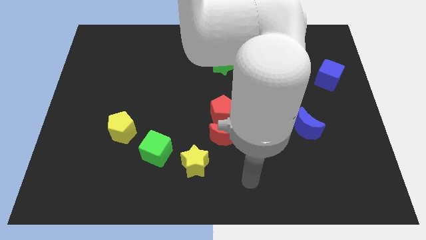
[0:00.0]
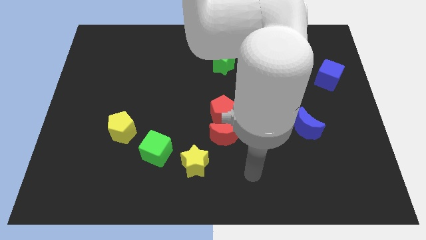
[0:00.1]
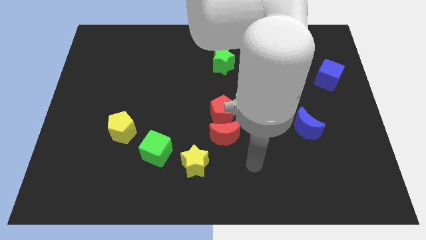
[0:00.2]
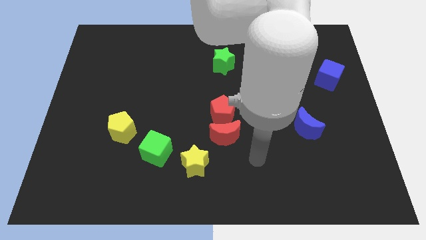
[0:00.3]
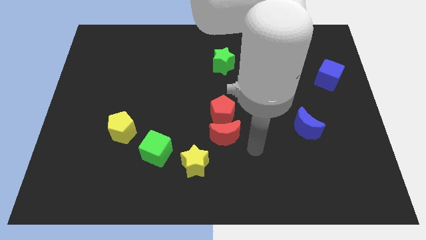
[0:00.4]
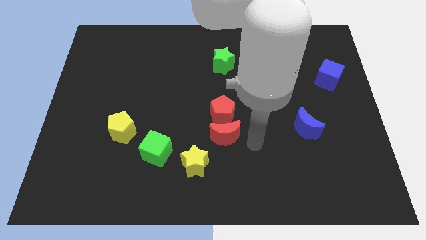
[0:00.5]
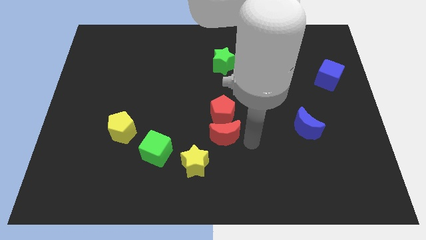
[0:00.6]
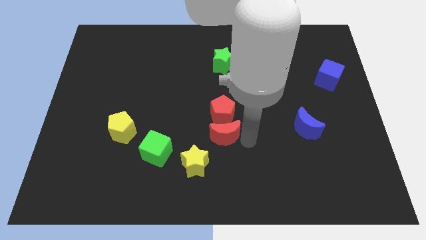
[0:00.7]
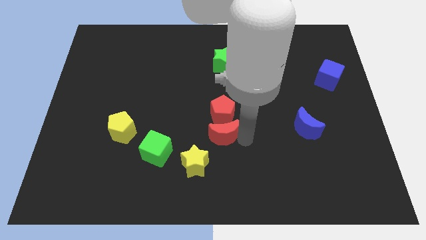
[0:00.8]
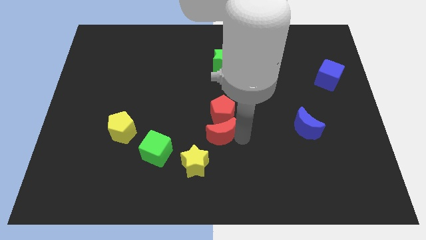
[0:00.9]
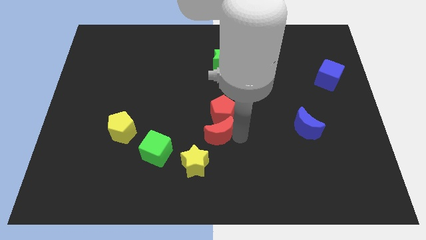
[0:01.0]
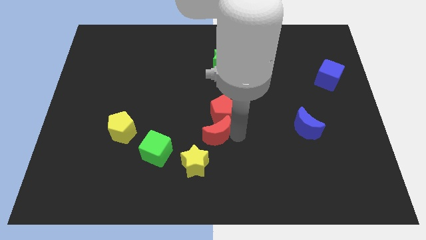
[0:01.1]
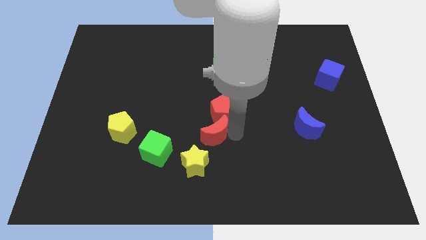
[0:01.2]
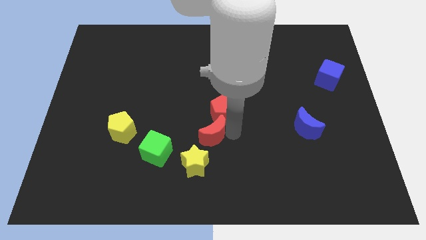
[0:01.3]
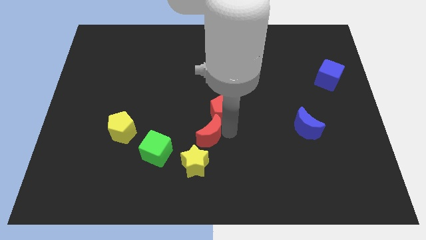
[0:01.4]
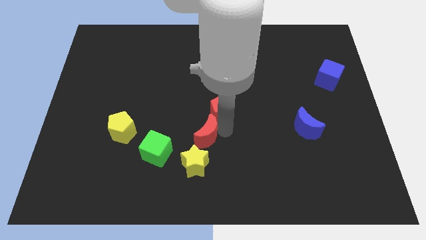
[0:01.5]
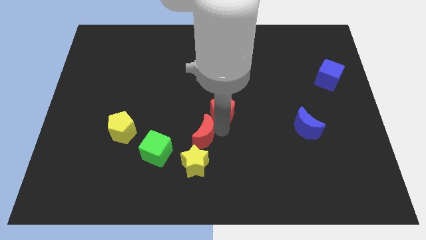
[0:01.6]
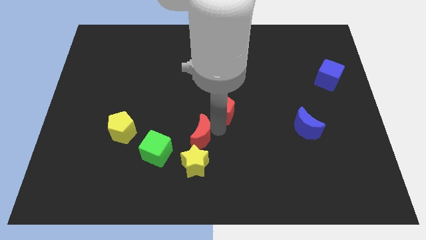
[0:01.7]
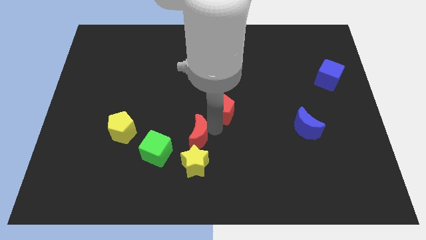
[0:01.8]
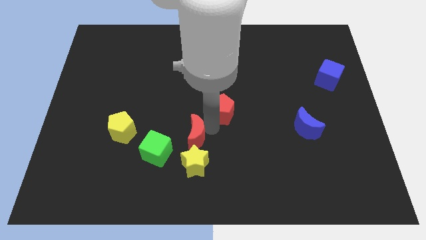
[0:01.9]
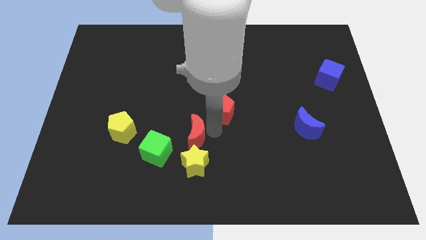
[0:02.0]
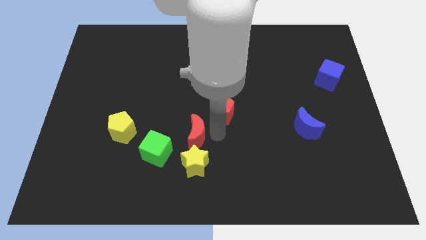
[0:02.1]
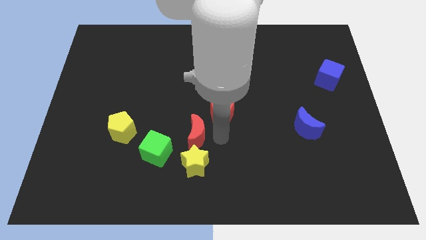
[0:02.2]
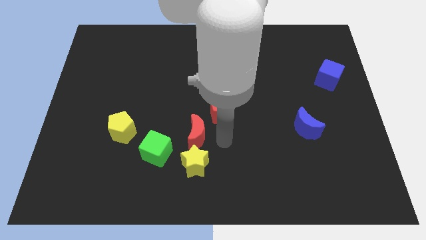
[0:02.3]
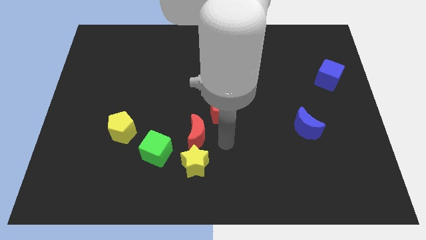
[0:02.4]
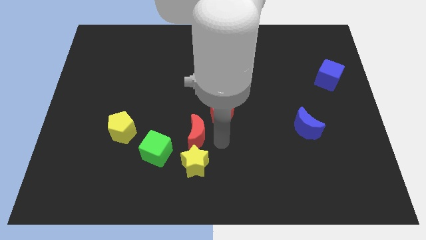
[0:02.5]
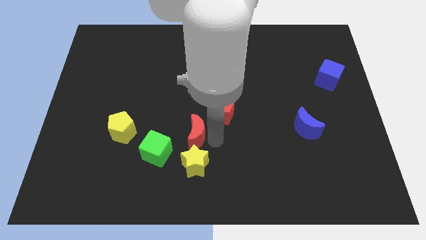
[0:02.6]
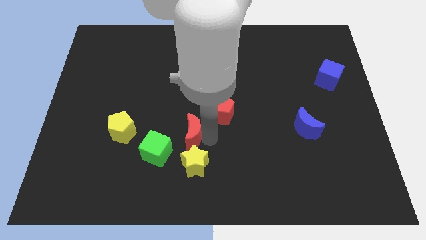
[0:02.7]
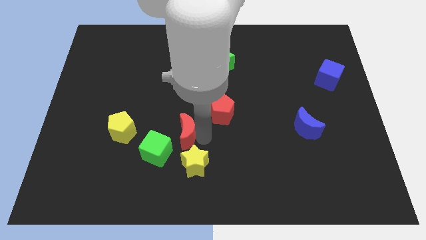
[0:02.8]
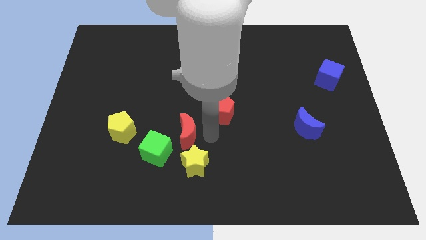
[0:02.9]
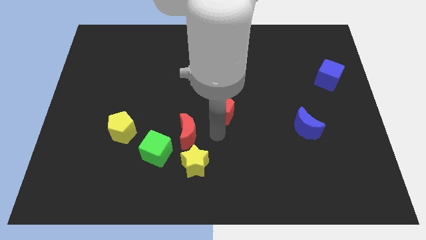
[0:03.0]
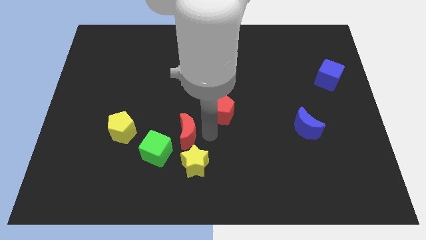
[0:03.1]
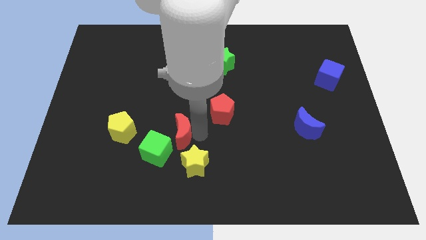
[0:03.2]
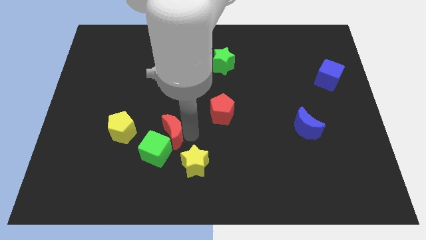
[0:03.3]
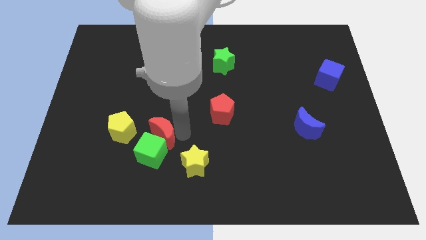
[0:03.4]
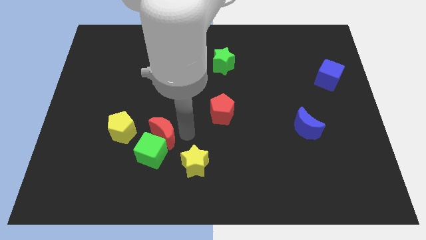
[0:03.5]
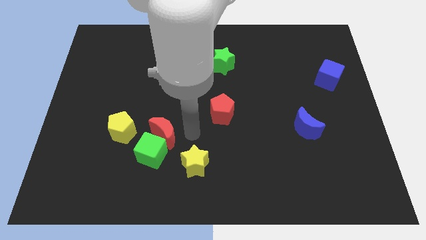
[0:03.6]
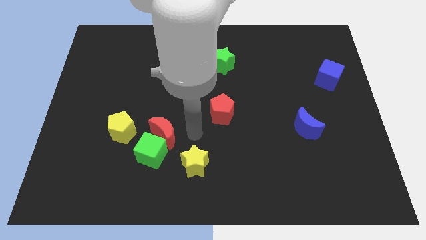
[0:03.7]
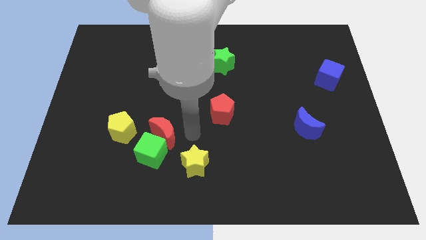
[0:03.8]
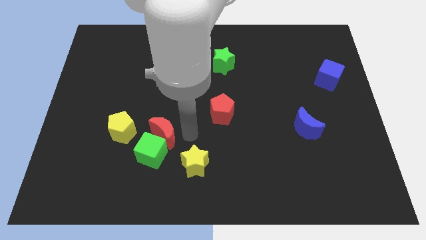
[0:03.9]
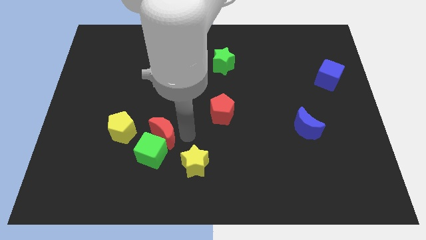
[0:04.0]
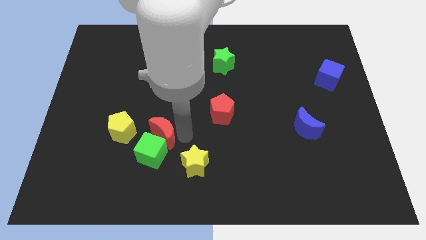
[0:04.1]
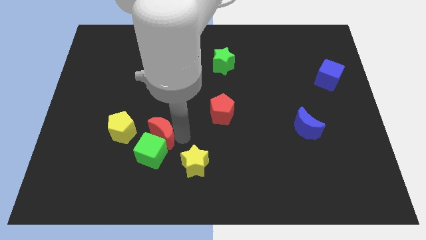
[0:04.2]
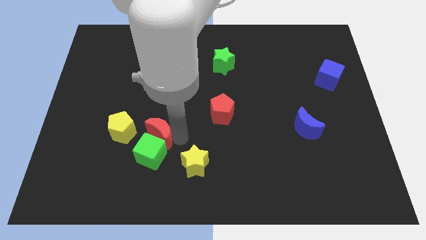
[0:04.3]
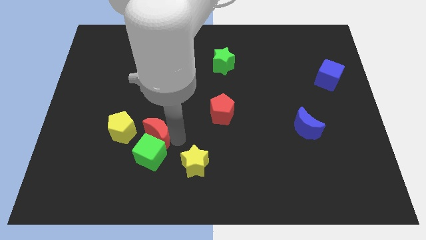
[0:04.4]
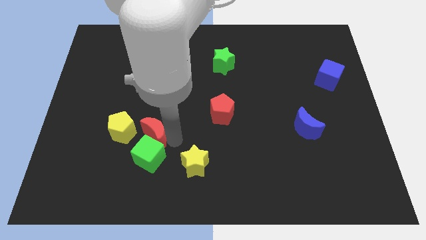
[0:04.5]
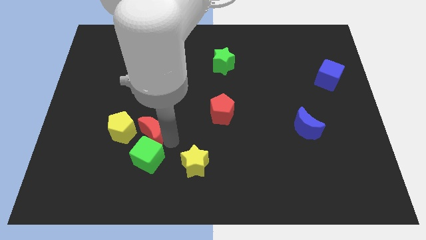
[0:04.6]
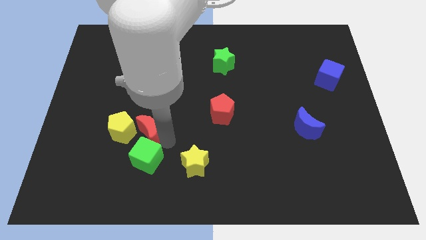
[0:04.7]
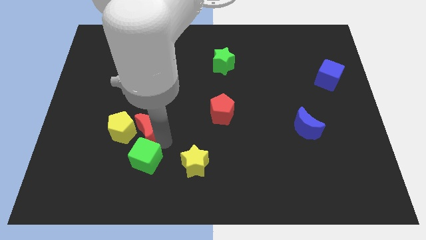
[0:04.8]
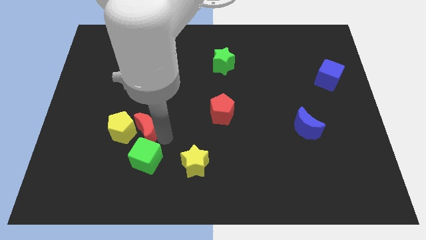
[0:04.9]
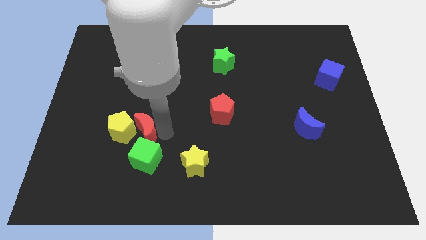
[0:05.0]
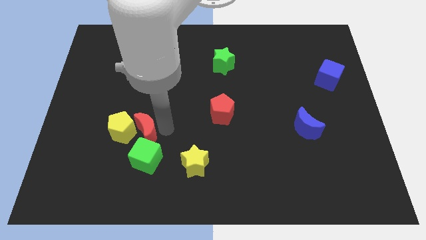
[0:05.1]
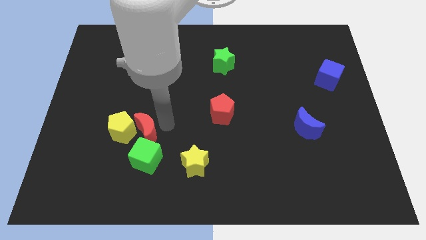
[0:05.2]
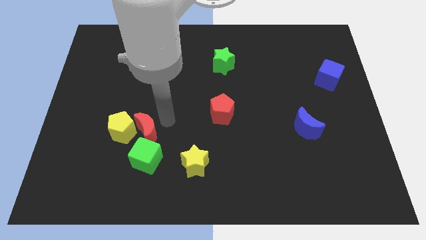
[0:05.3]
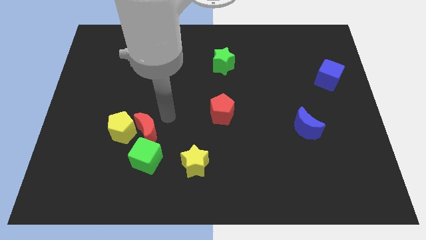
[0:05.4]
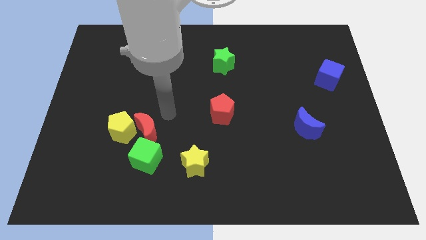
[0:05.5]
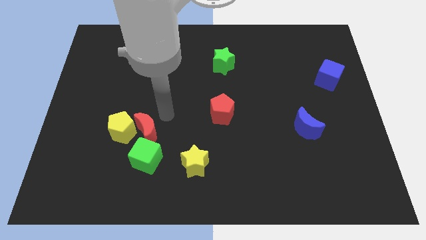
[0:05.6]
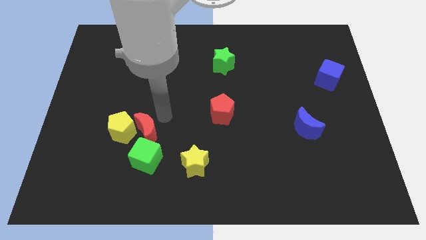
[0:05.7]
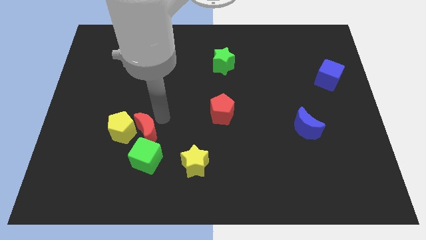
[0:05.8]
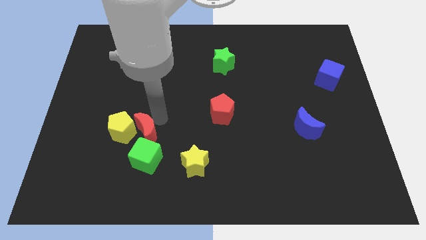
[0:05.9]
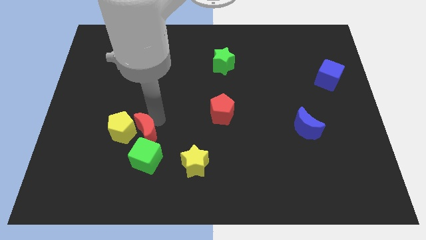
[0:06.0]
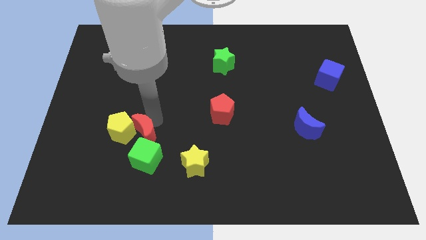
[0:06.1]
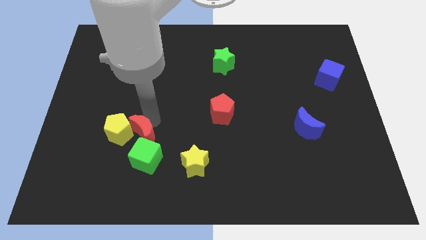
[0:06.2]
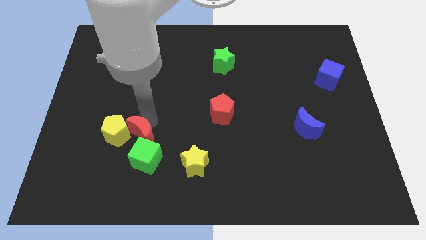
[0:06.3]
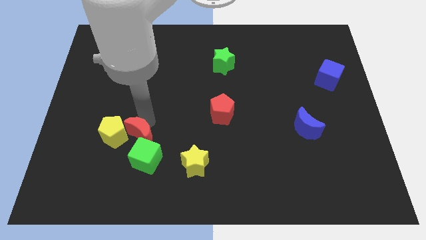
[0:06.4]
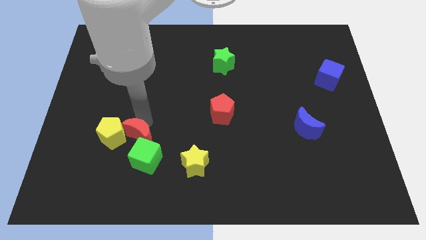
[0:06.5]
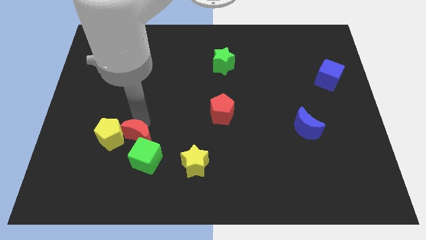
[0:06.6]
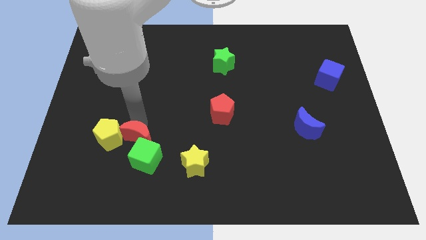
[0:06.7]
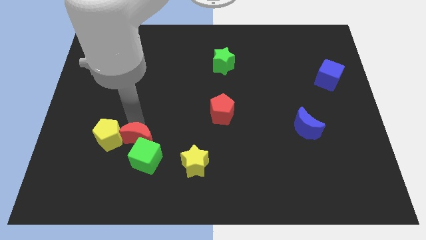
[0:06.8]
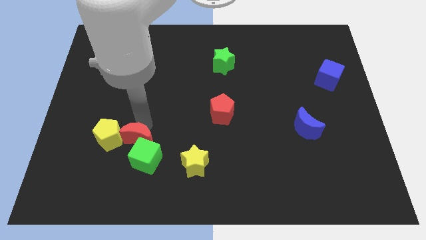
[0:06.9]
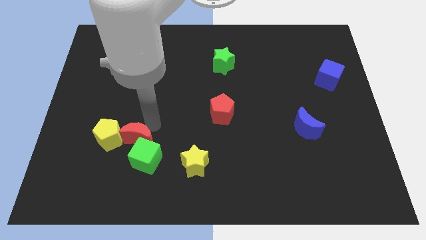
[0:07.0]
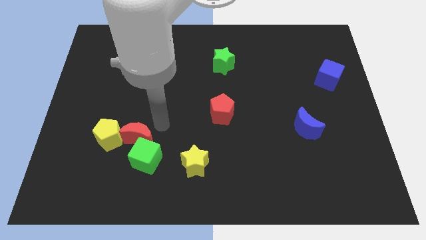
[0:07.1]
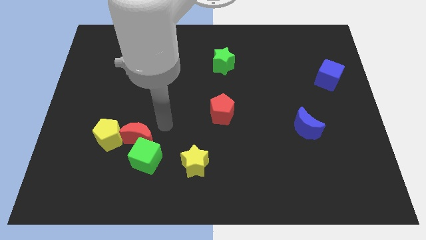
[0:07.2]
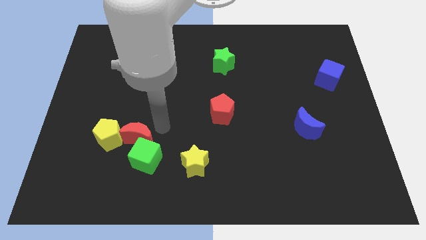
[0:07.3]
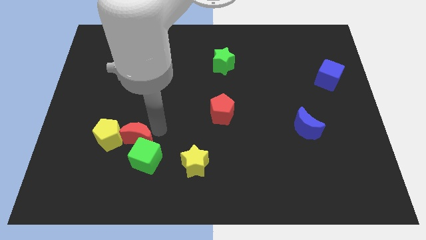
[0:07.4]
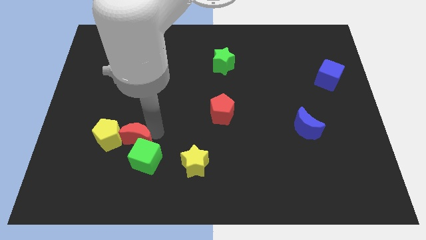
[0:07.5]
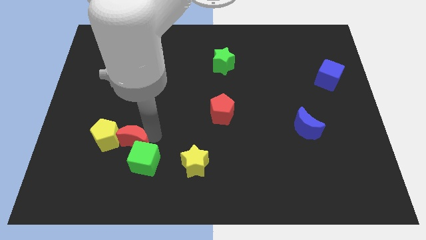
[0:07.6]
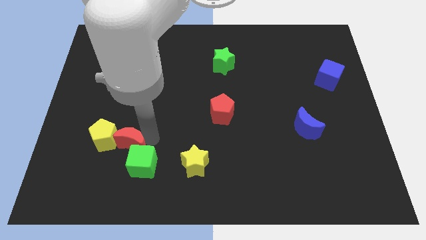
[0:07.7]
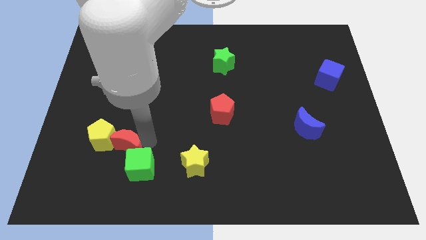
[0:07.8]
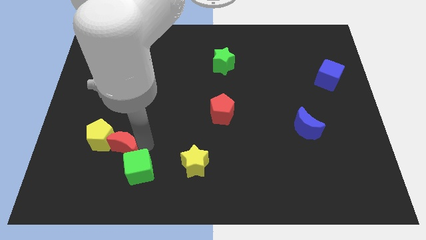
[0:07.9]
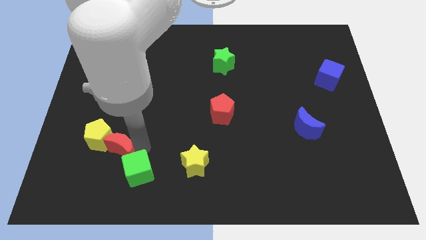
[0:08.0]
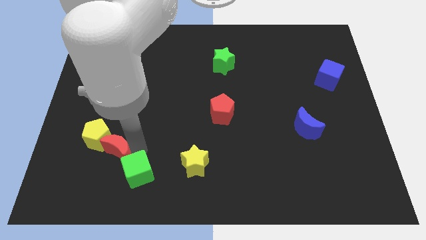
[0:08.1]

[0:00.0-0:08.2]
put the red moon to the left of the green cube
